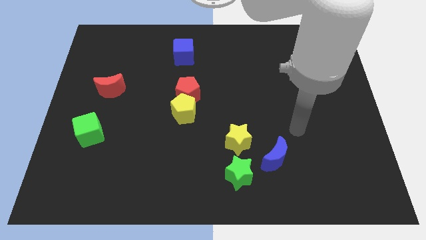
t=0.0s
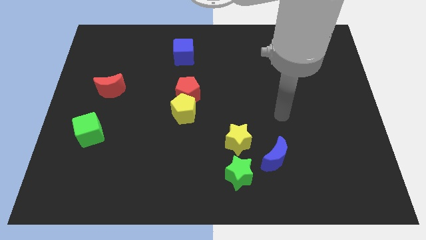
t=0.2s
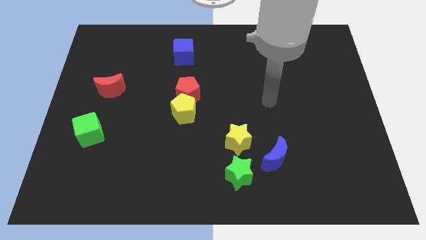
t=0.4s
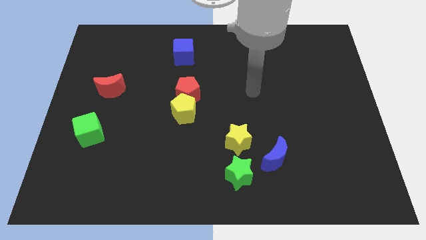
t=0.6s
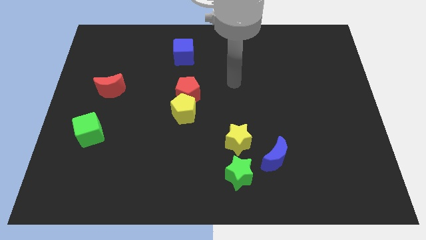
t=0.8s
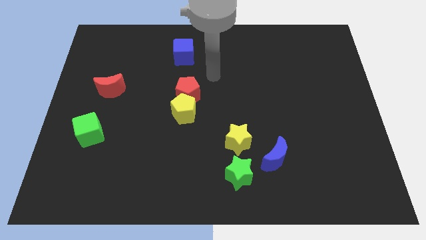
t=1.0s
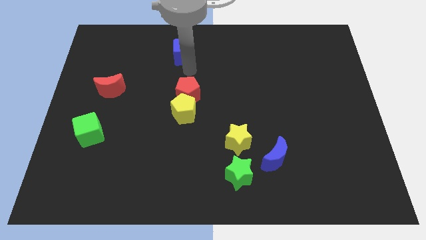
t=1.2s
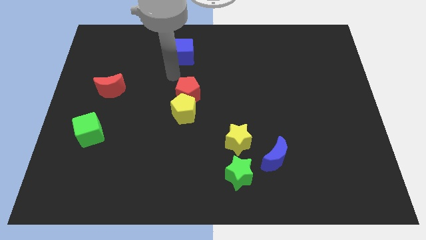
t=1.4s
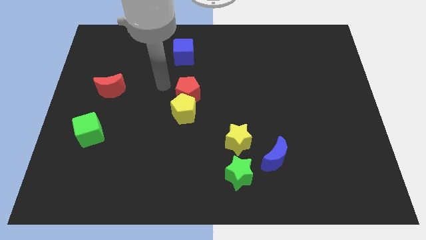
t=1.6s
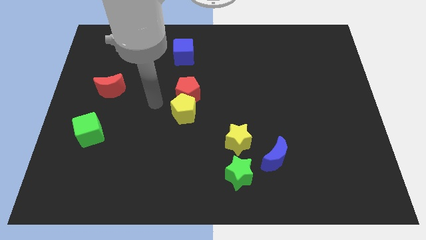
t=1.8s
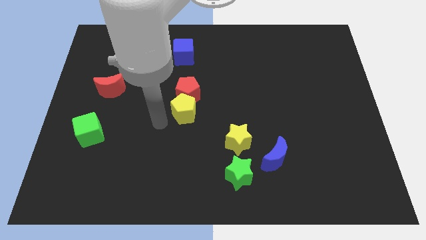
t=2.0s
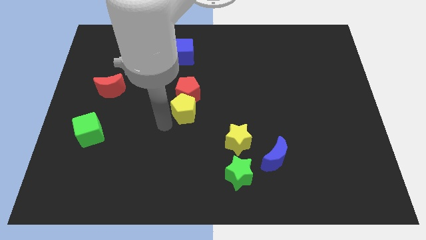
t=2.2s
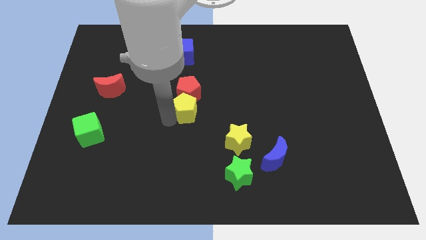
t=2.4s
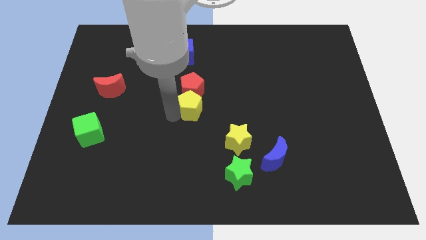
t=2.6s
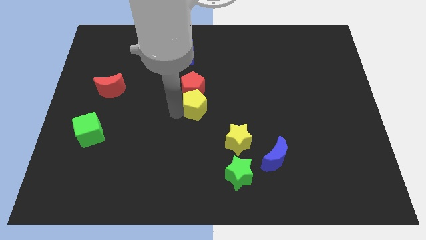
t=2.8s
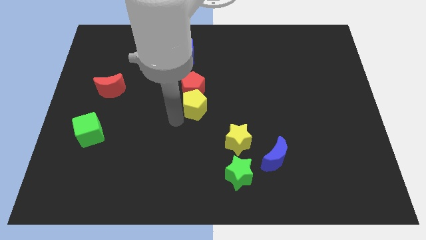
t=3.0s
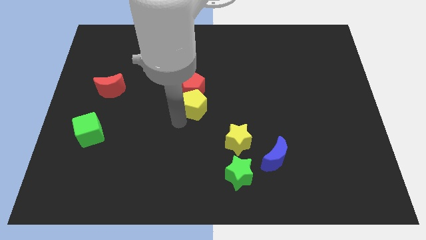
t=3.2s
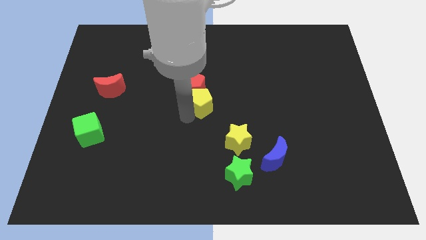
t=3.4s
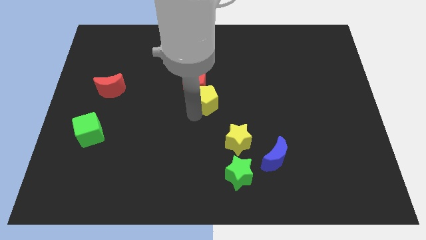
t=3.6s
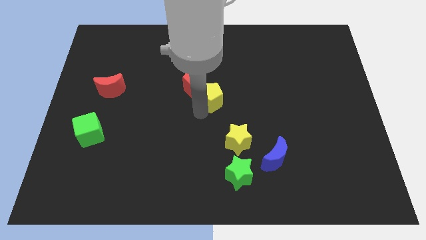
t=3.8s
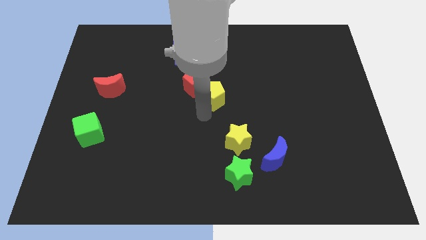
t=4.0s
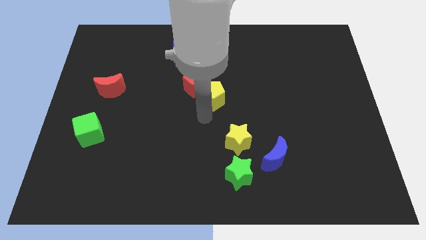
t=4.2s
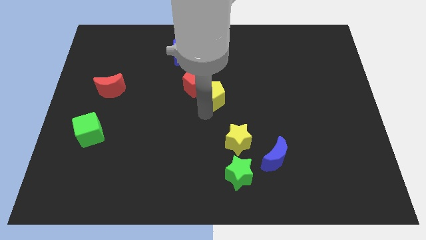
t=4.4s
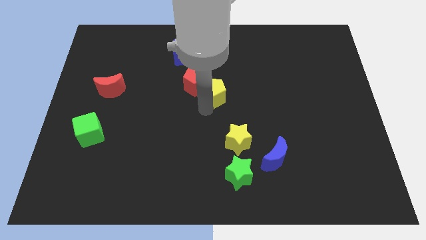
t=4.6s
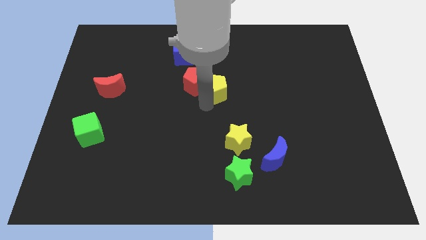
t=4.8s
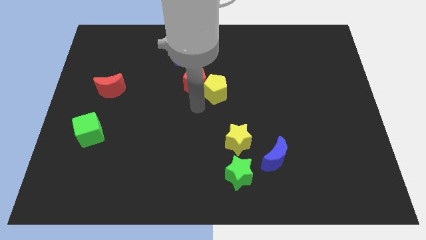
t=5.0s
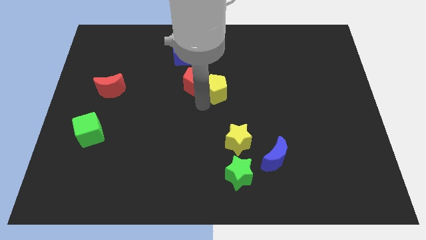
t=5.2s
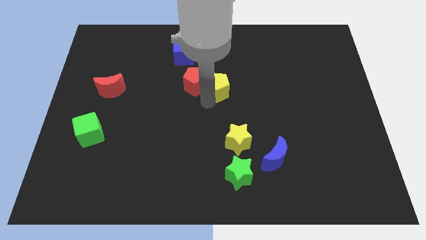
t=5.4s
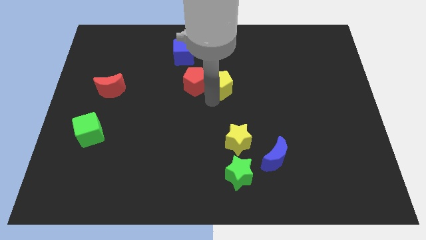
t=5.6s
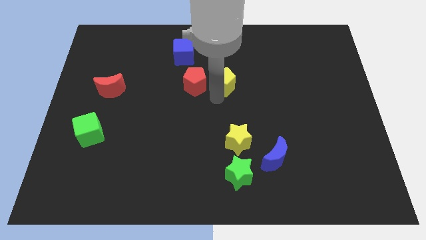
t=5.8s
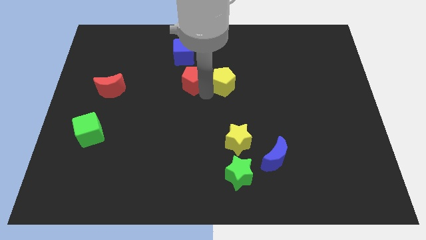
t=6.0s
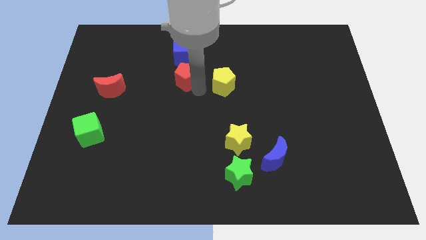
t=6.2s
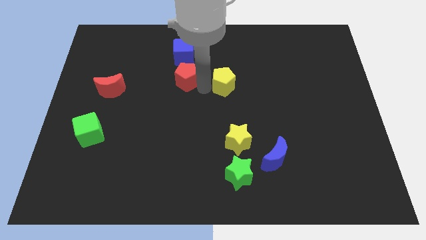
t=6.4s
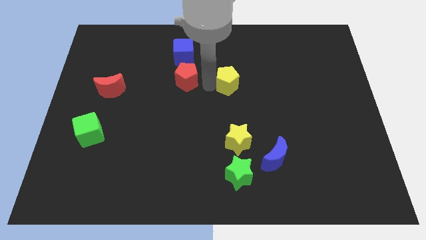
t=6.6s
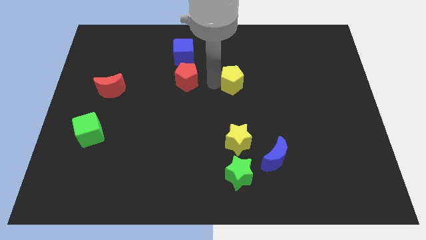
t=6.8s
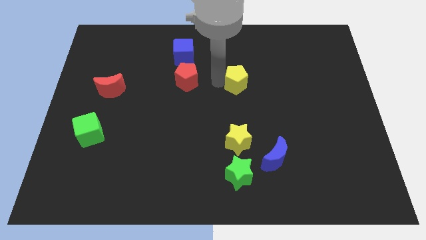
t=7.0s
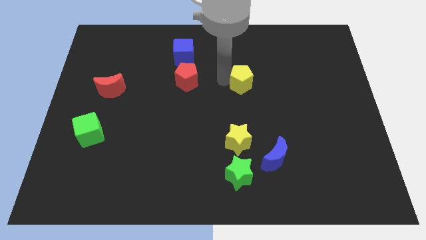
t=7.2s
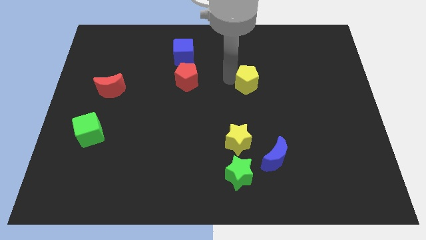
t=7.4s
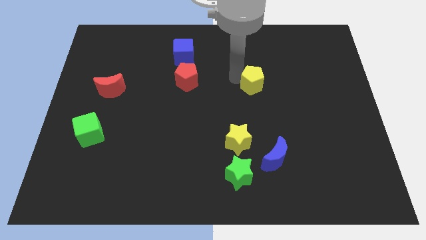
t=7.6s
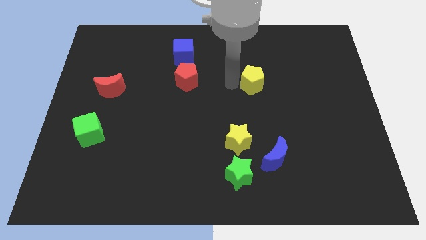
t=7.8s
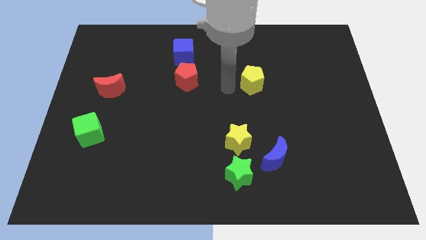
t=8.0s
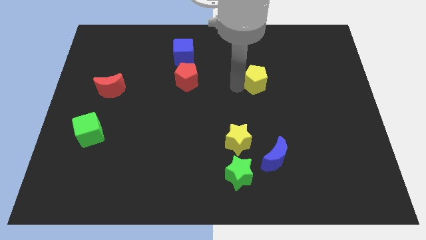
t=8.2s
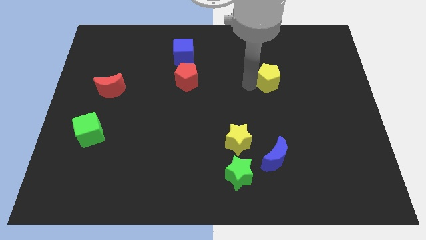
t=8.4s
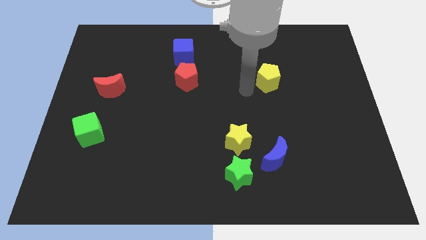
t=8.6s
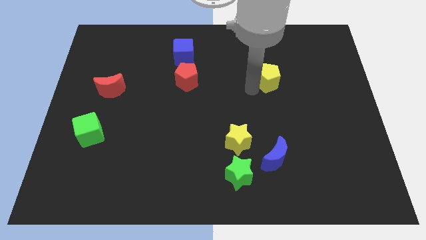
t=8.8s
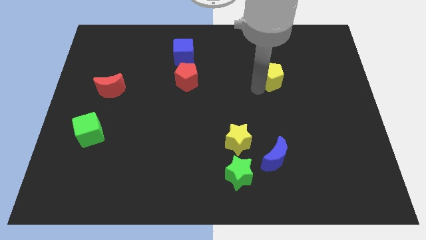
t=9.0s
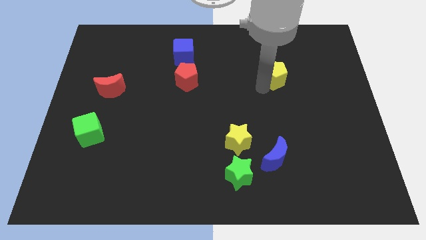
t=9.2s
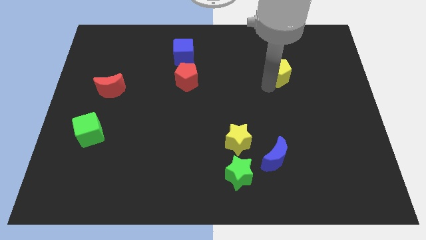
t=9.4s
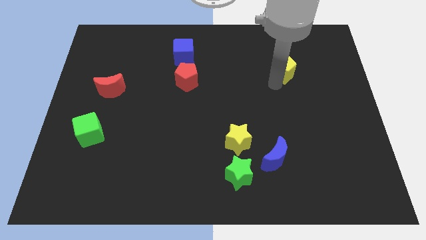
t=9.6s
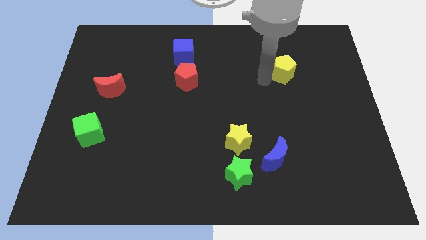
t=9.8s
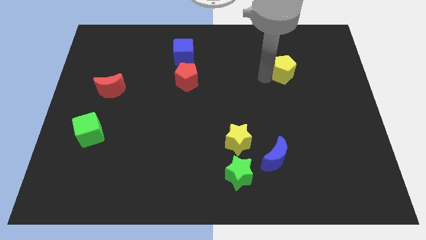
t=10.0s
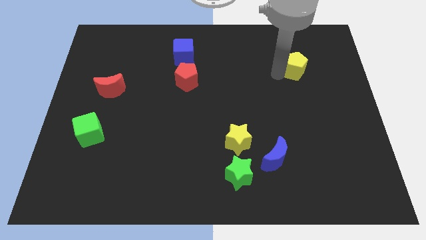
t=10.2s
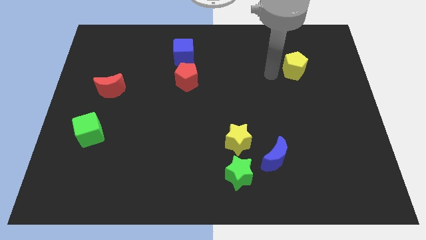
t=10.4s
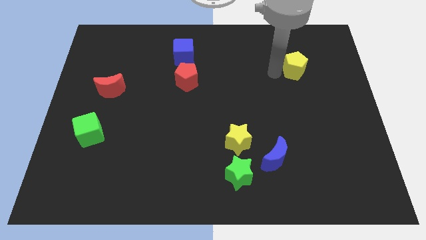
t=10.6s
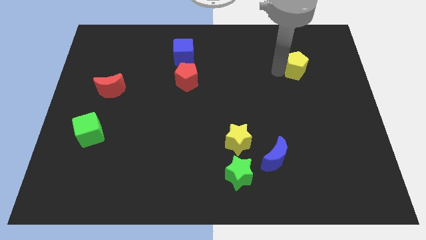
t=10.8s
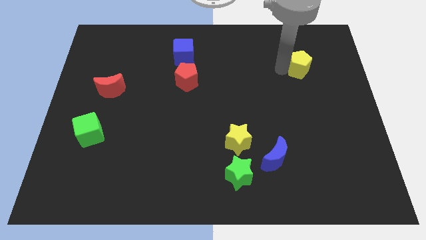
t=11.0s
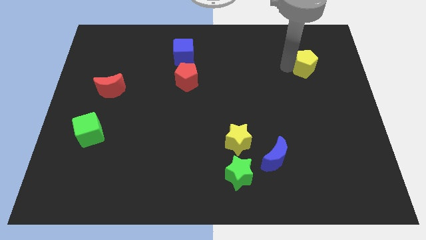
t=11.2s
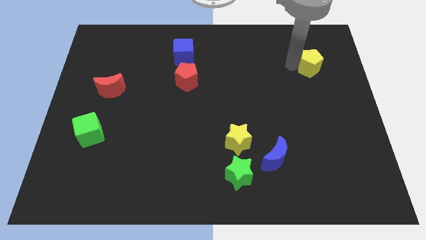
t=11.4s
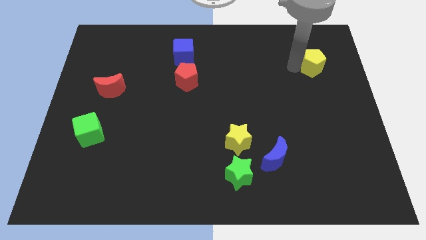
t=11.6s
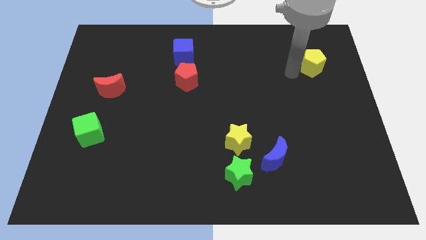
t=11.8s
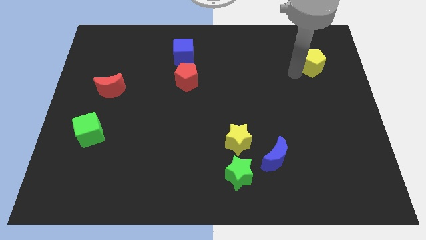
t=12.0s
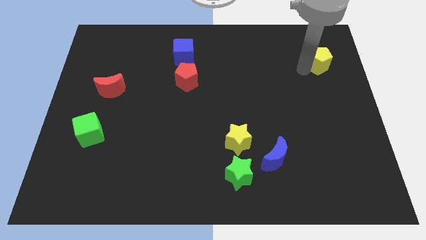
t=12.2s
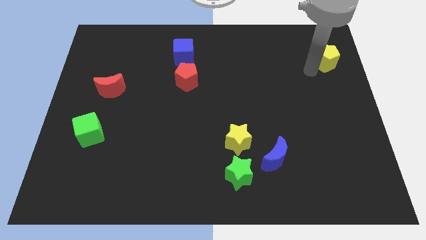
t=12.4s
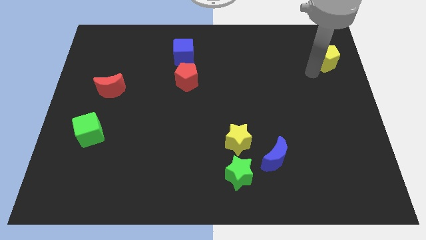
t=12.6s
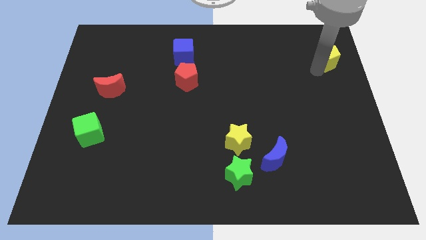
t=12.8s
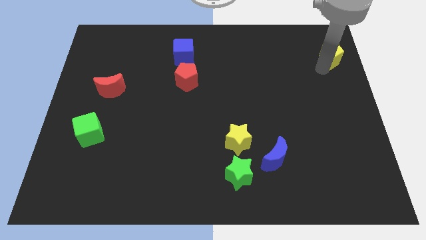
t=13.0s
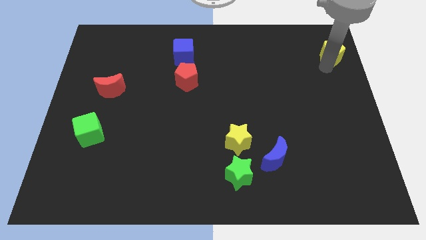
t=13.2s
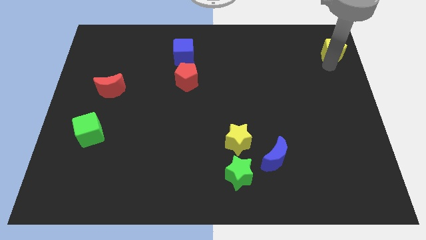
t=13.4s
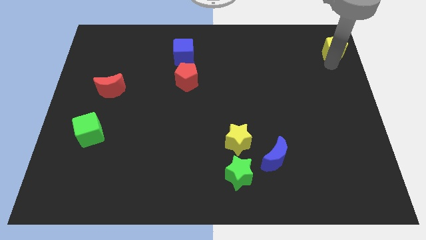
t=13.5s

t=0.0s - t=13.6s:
slide the yellow pentagon to the top right
